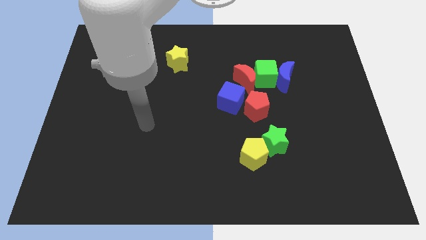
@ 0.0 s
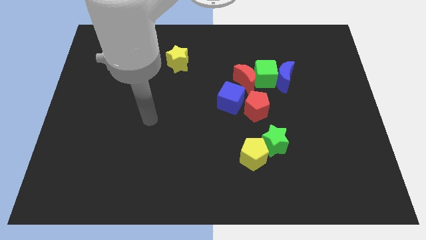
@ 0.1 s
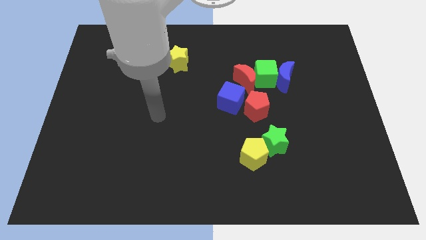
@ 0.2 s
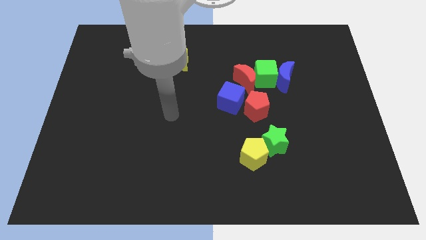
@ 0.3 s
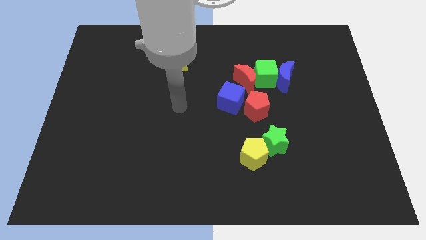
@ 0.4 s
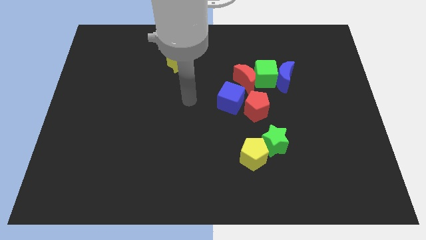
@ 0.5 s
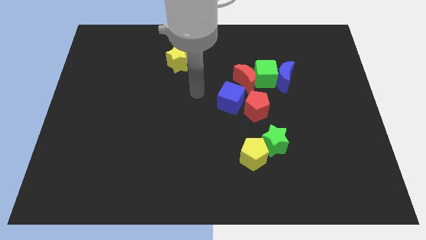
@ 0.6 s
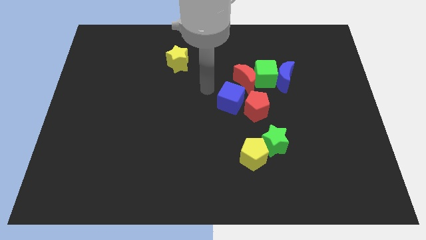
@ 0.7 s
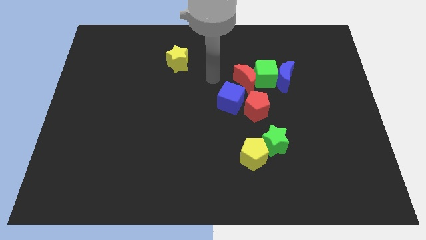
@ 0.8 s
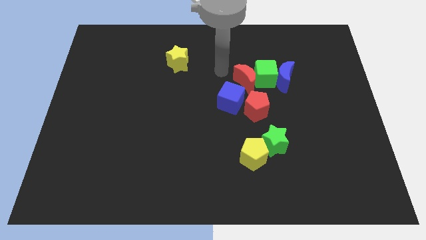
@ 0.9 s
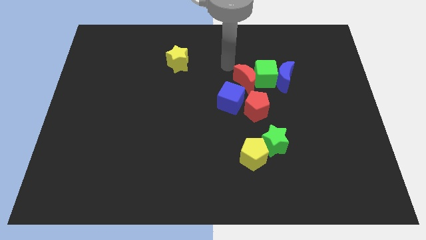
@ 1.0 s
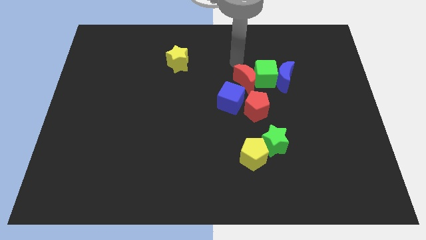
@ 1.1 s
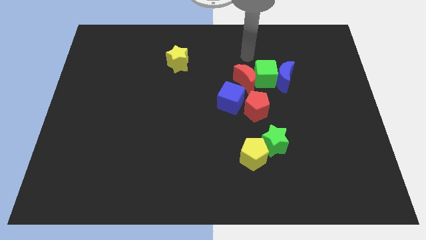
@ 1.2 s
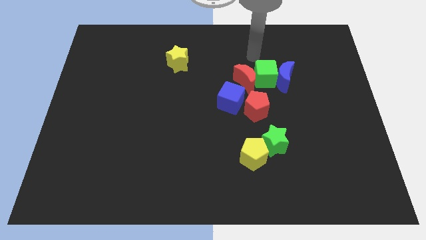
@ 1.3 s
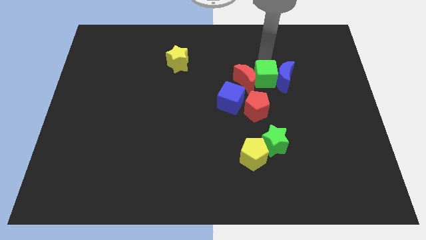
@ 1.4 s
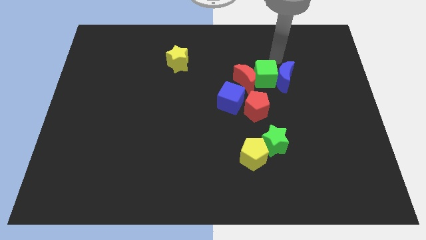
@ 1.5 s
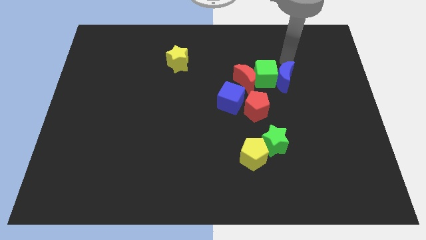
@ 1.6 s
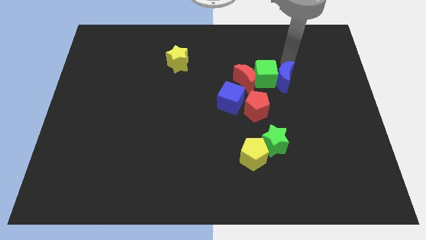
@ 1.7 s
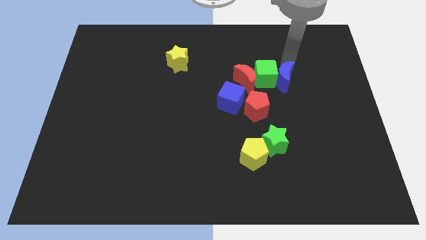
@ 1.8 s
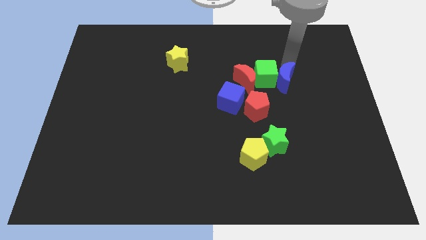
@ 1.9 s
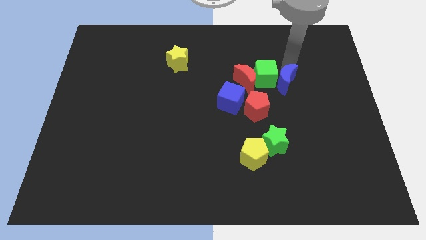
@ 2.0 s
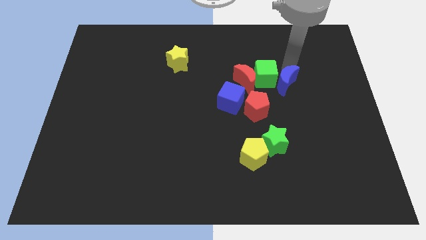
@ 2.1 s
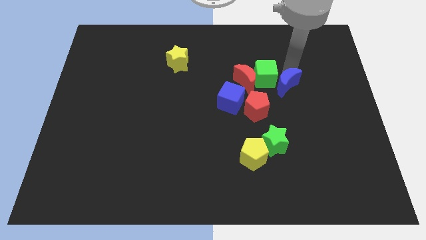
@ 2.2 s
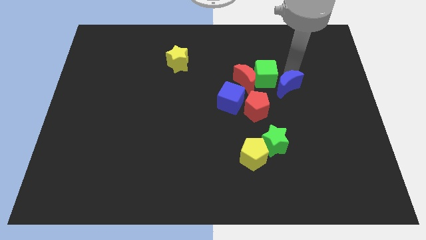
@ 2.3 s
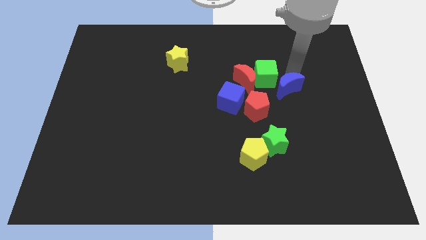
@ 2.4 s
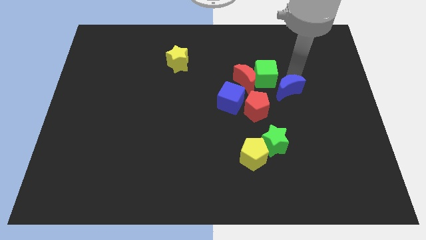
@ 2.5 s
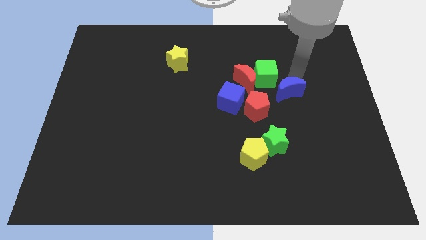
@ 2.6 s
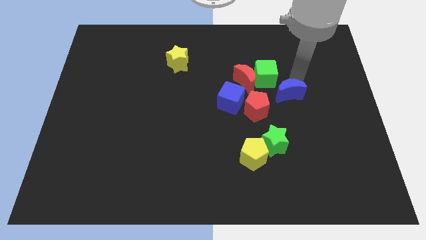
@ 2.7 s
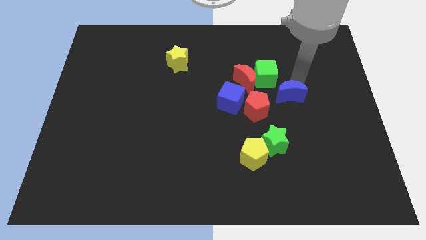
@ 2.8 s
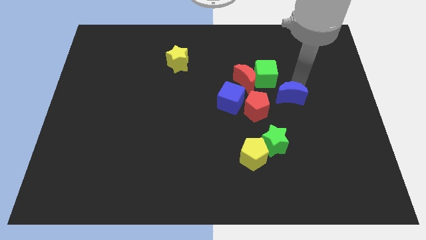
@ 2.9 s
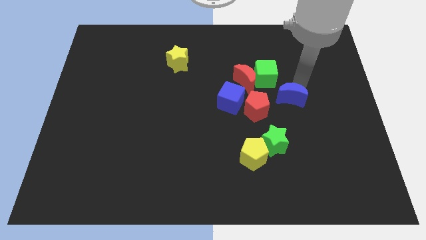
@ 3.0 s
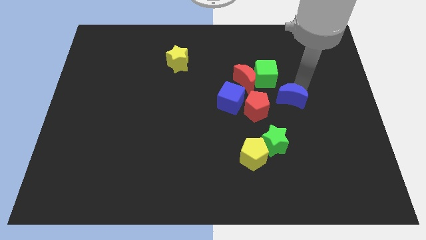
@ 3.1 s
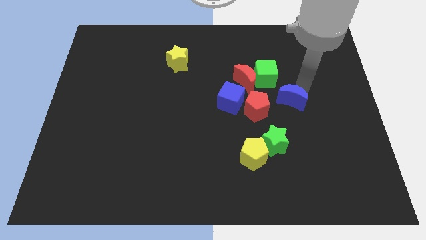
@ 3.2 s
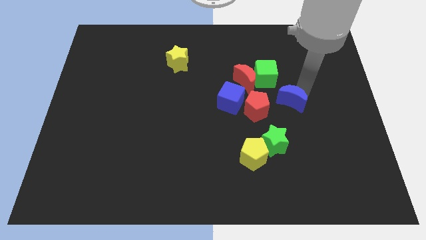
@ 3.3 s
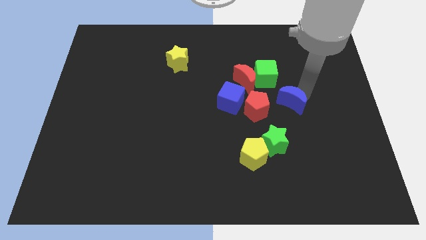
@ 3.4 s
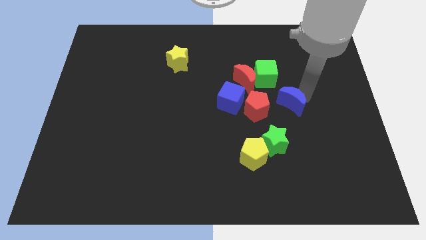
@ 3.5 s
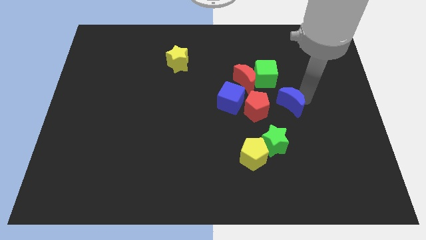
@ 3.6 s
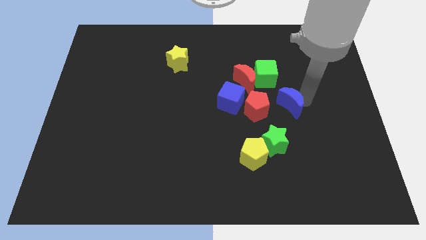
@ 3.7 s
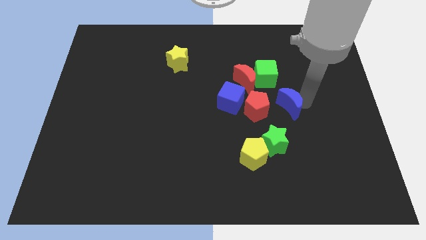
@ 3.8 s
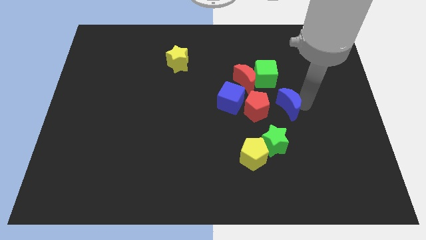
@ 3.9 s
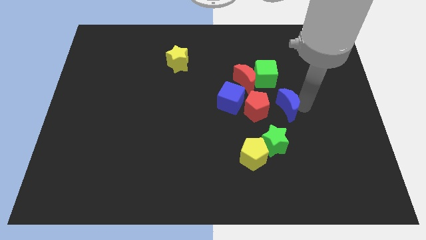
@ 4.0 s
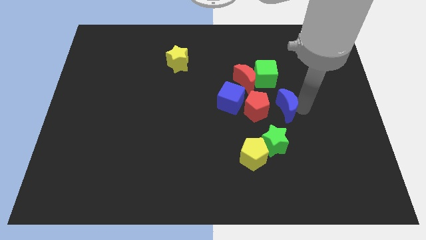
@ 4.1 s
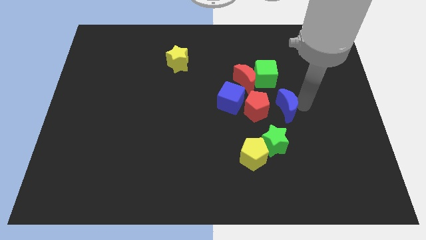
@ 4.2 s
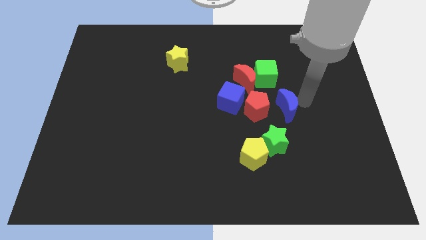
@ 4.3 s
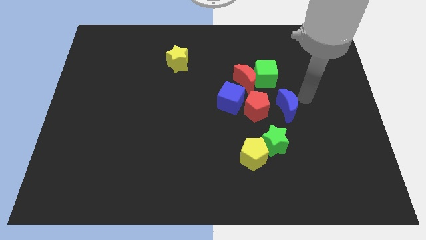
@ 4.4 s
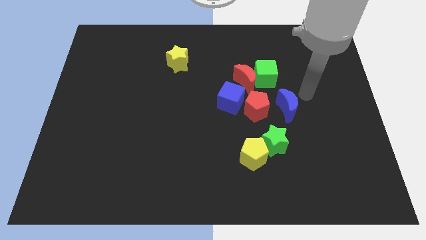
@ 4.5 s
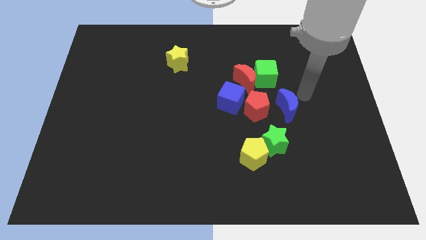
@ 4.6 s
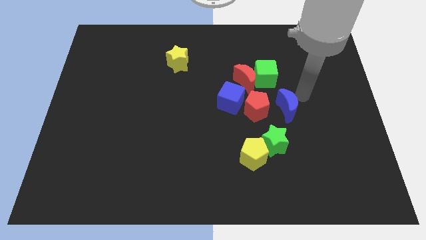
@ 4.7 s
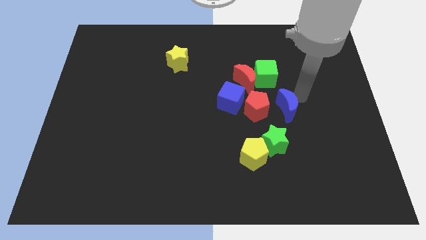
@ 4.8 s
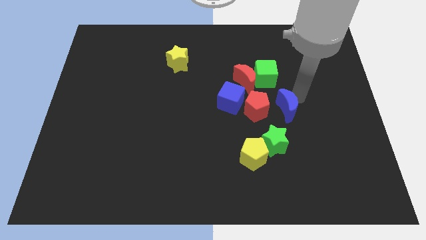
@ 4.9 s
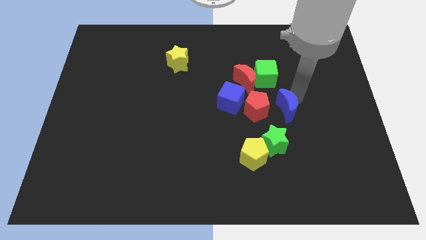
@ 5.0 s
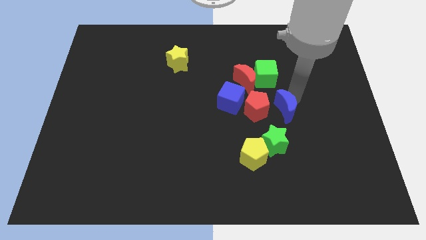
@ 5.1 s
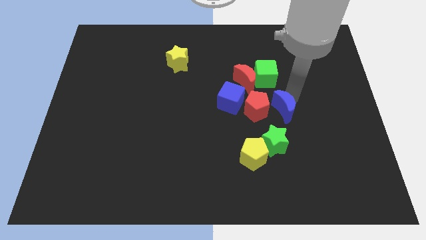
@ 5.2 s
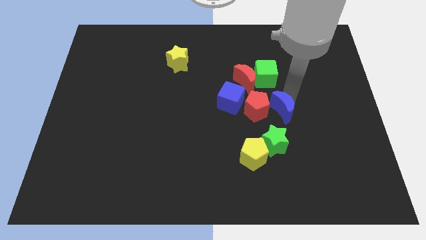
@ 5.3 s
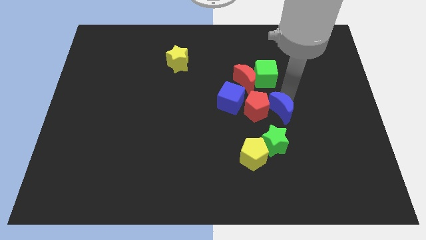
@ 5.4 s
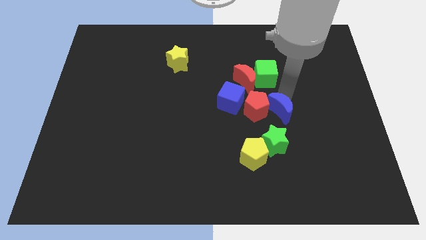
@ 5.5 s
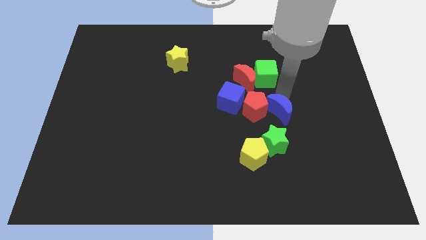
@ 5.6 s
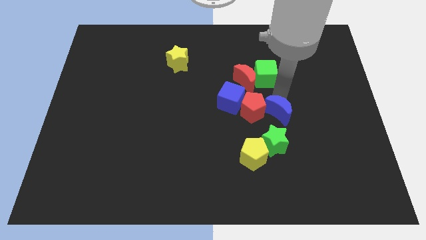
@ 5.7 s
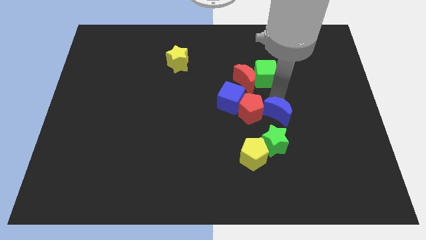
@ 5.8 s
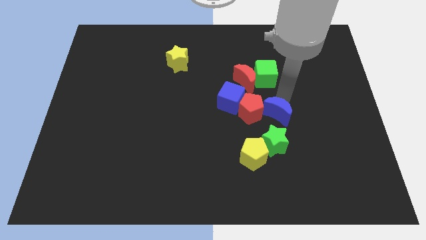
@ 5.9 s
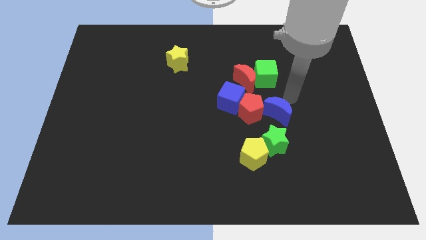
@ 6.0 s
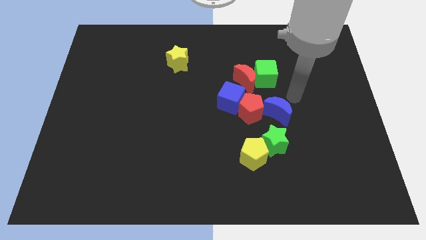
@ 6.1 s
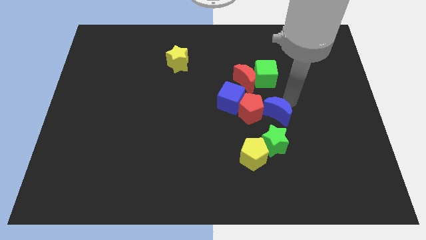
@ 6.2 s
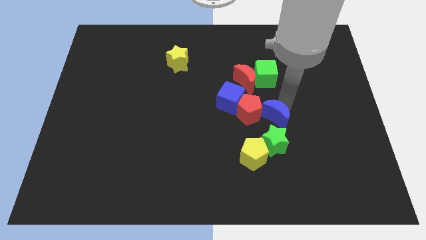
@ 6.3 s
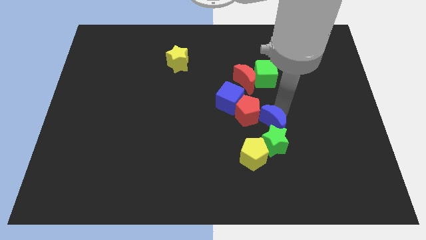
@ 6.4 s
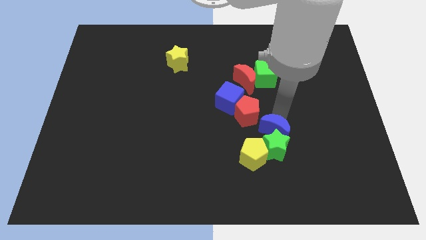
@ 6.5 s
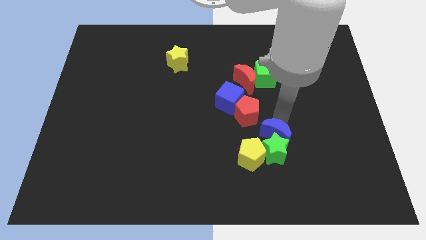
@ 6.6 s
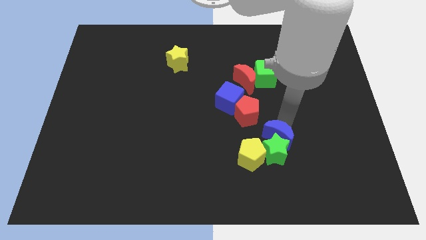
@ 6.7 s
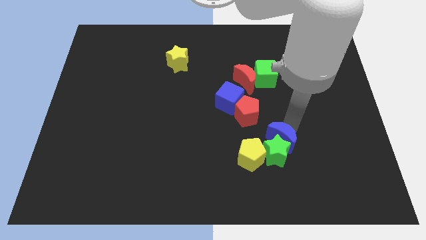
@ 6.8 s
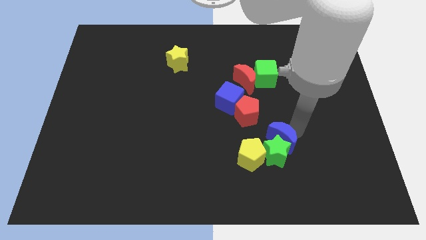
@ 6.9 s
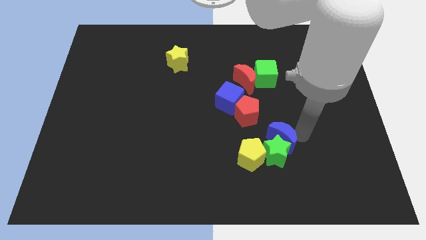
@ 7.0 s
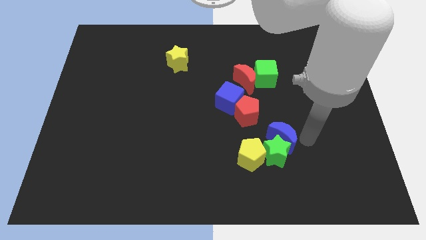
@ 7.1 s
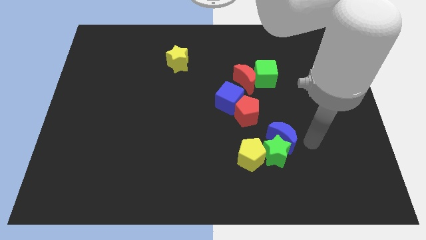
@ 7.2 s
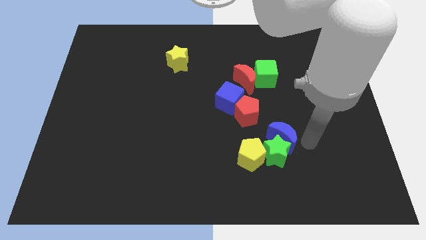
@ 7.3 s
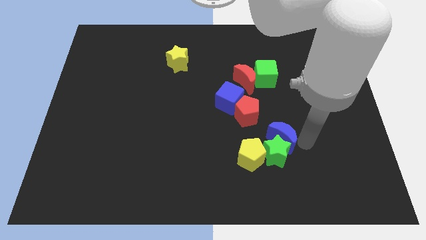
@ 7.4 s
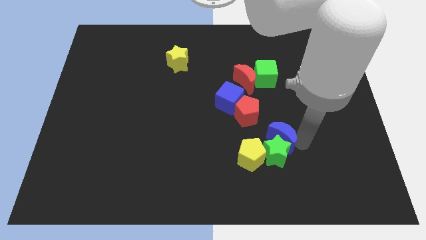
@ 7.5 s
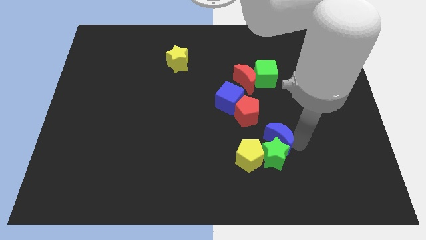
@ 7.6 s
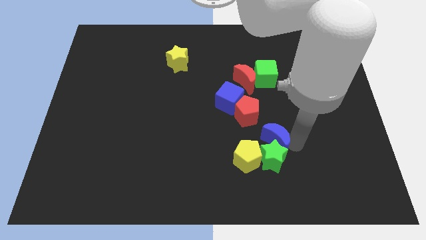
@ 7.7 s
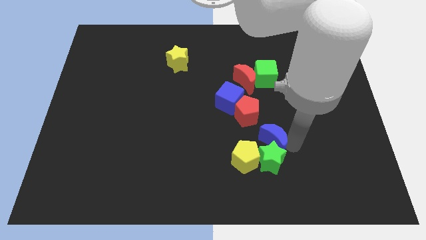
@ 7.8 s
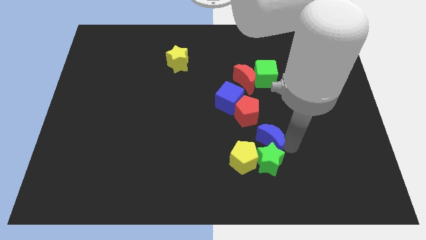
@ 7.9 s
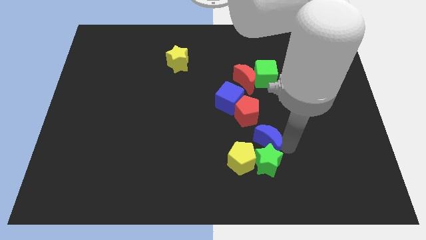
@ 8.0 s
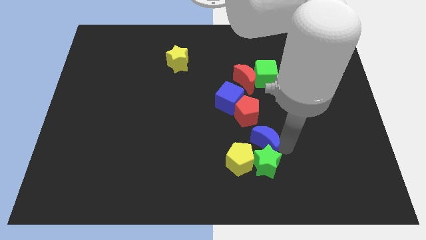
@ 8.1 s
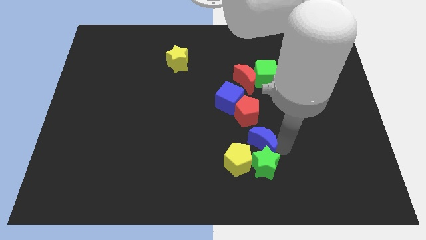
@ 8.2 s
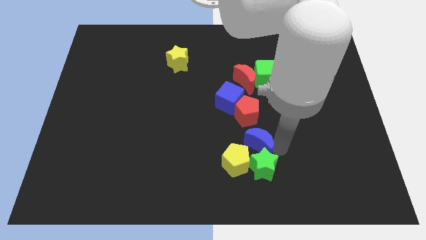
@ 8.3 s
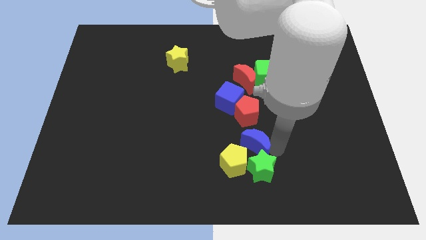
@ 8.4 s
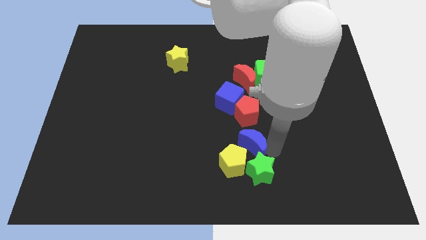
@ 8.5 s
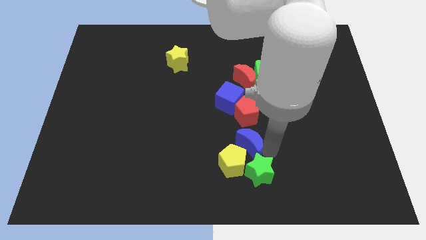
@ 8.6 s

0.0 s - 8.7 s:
push the blue moon towards the yellow pentagon
